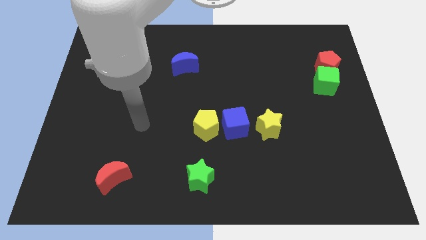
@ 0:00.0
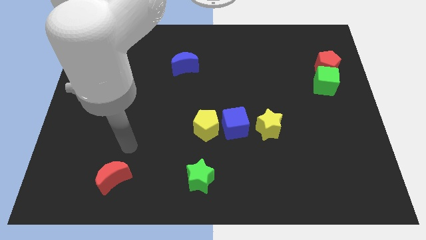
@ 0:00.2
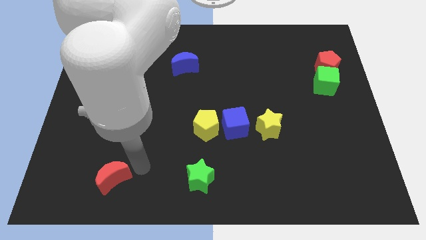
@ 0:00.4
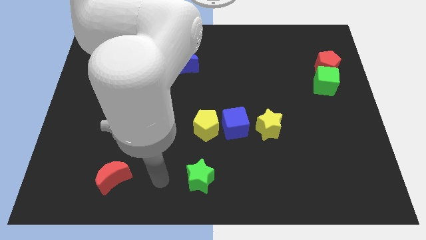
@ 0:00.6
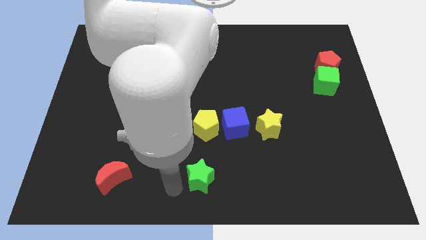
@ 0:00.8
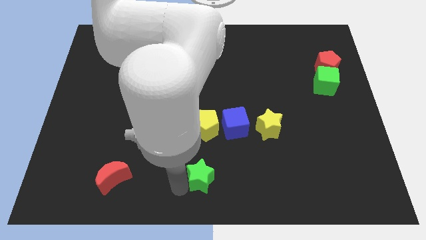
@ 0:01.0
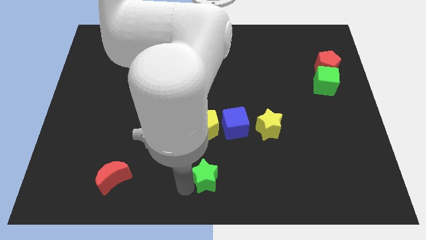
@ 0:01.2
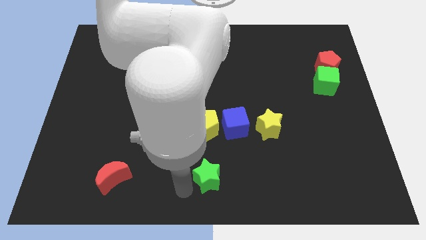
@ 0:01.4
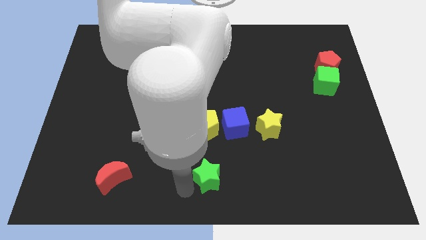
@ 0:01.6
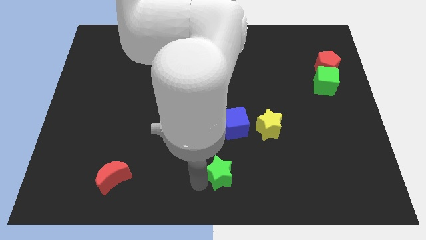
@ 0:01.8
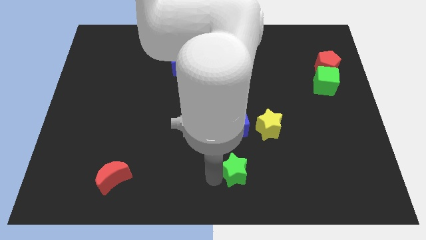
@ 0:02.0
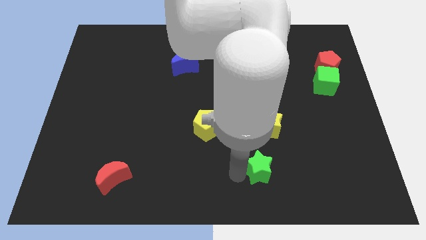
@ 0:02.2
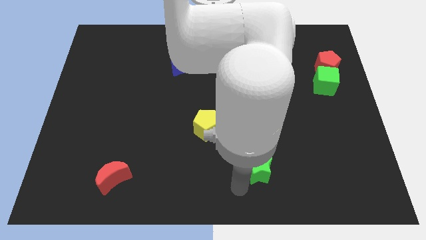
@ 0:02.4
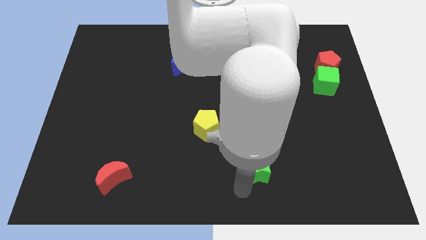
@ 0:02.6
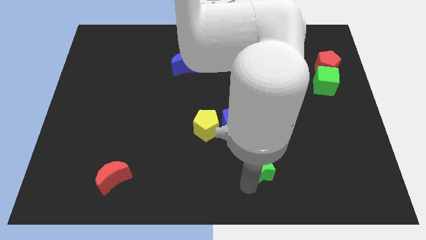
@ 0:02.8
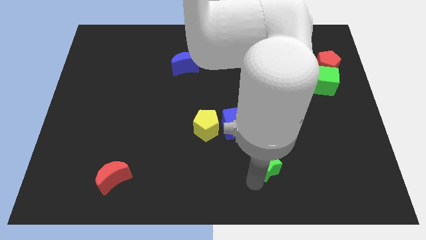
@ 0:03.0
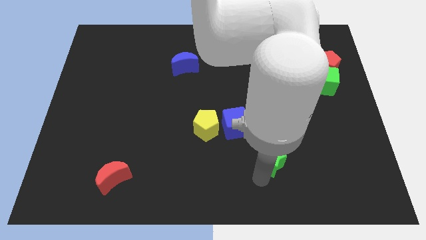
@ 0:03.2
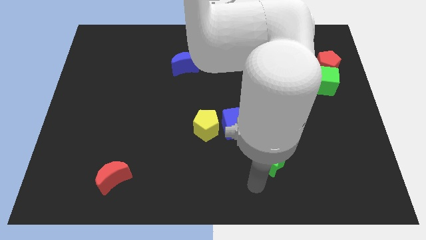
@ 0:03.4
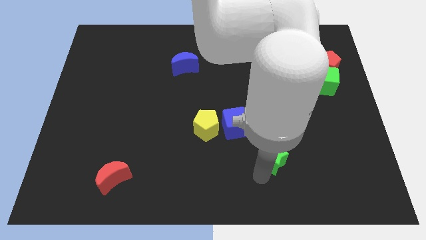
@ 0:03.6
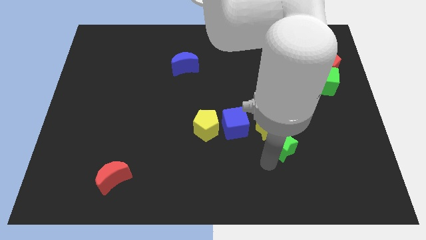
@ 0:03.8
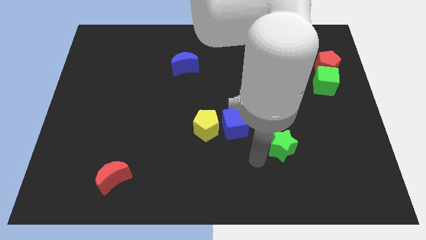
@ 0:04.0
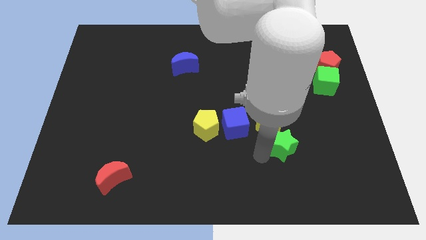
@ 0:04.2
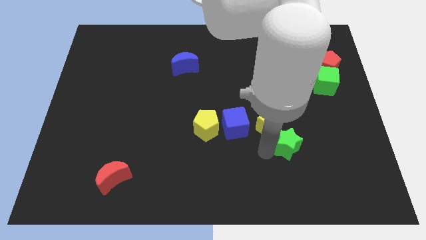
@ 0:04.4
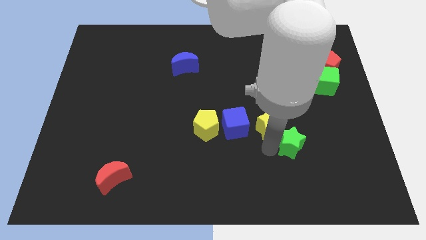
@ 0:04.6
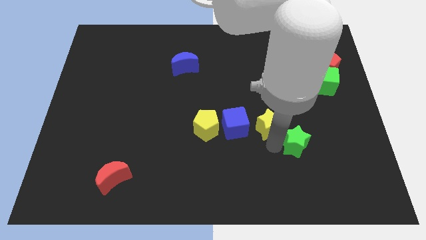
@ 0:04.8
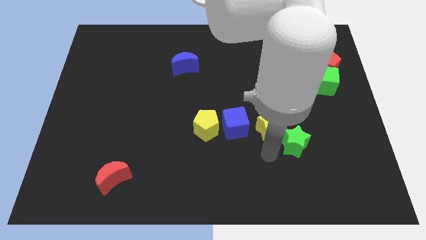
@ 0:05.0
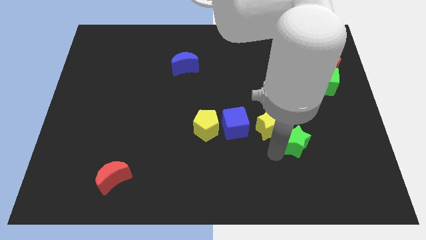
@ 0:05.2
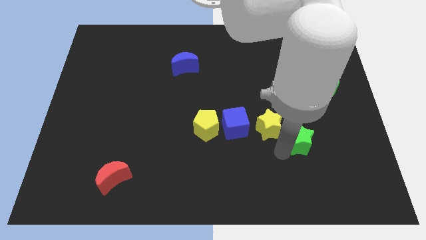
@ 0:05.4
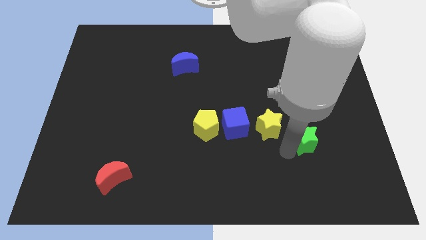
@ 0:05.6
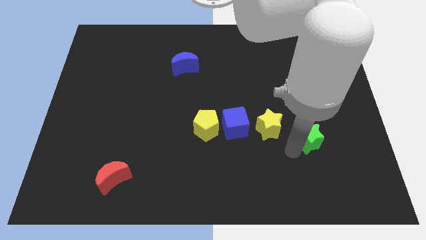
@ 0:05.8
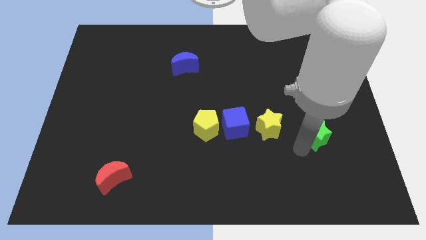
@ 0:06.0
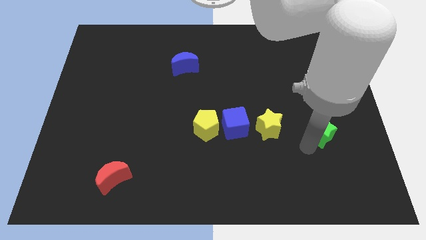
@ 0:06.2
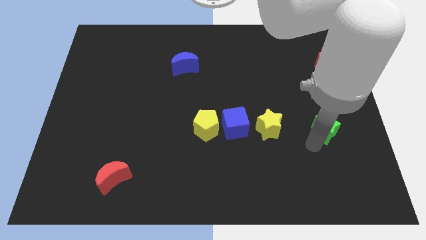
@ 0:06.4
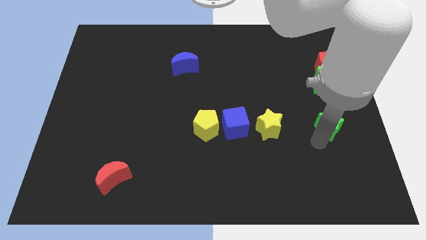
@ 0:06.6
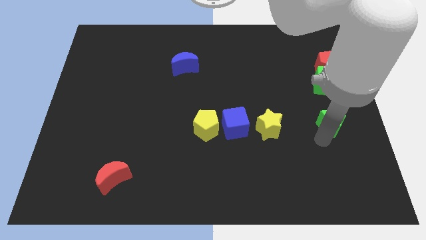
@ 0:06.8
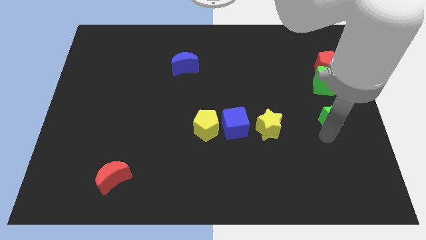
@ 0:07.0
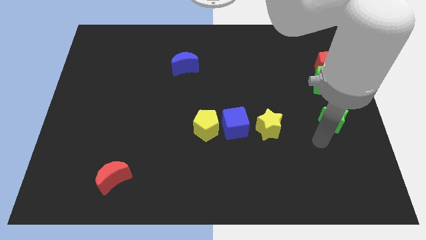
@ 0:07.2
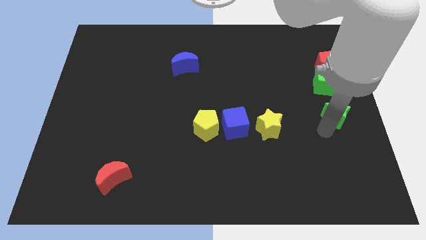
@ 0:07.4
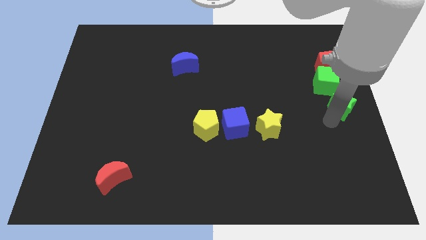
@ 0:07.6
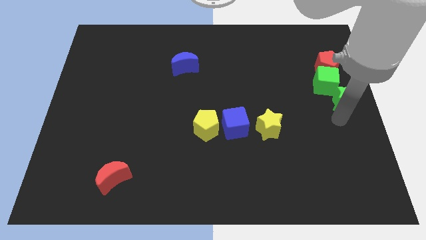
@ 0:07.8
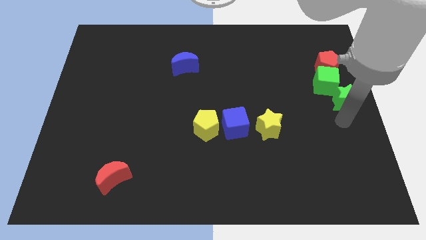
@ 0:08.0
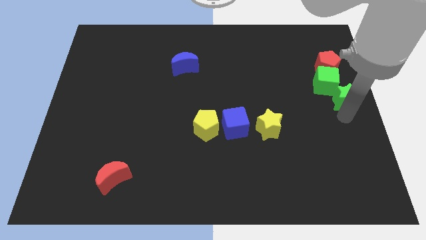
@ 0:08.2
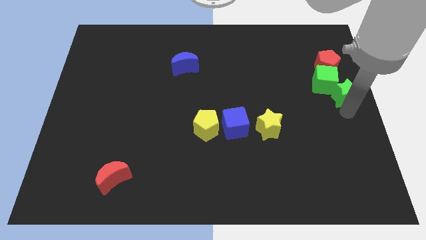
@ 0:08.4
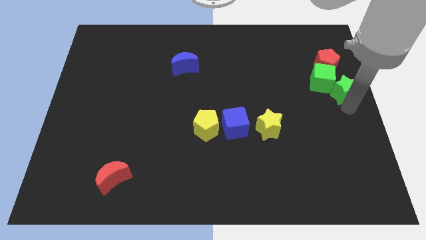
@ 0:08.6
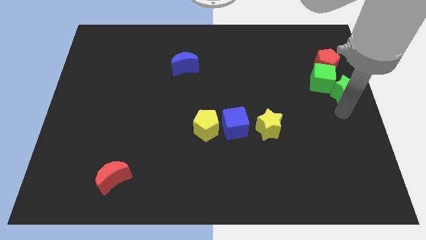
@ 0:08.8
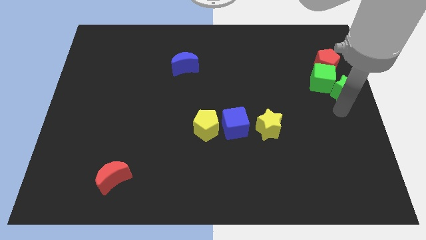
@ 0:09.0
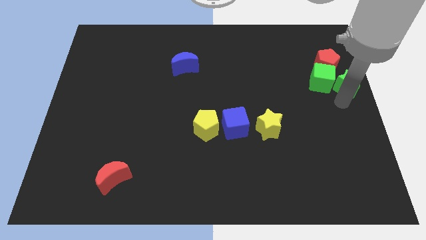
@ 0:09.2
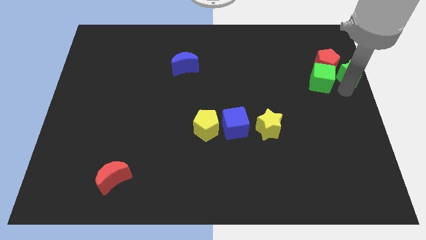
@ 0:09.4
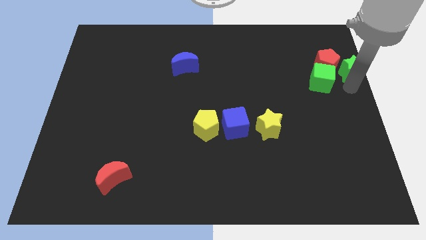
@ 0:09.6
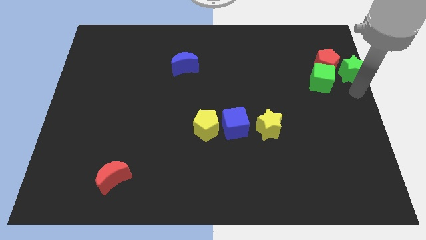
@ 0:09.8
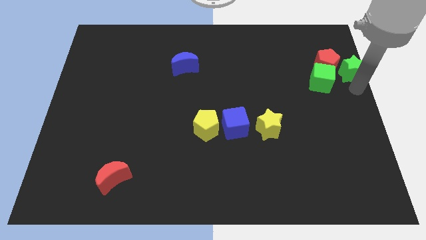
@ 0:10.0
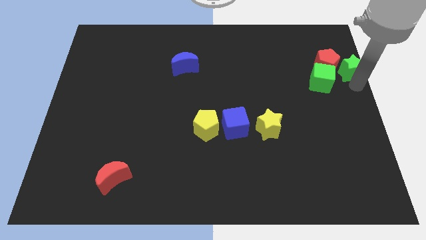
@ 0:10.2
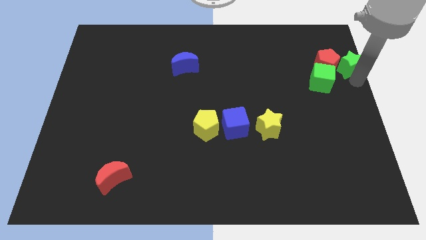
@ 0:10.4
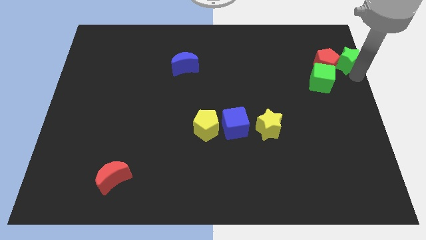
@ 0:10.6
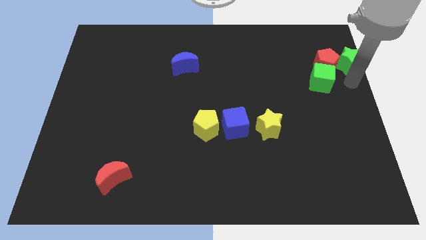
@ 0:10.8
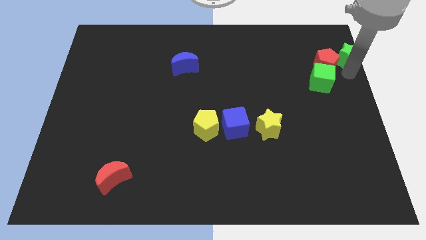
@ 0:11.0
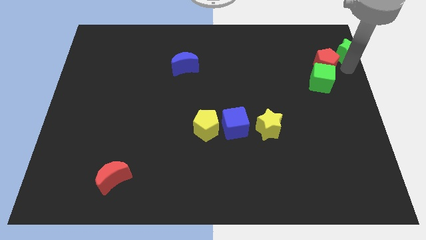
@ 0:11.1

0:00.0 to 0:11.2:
put the green star to the top right of the board
